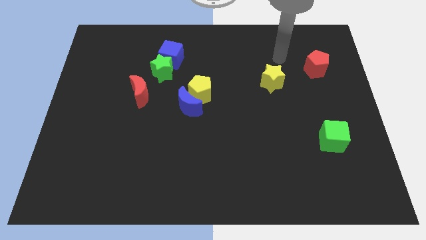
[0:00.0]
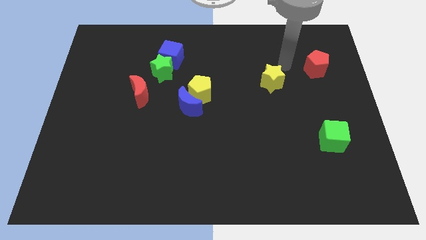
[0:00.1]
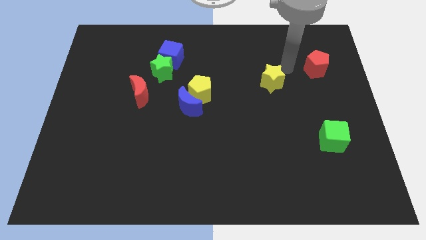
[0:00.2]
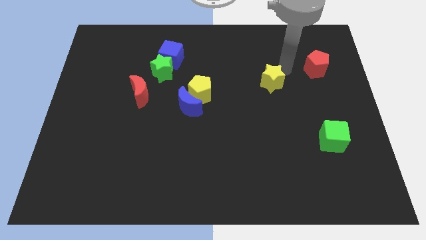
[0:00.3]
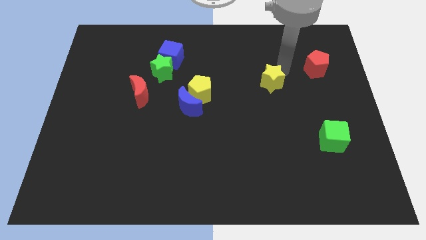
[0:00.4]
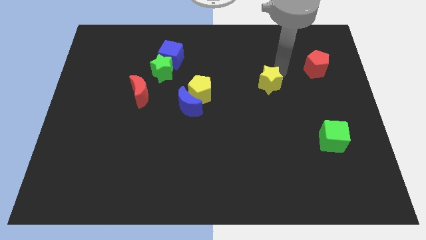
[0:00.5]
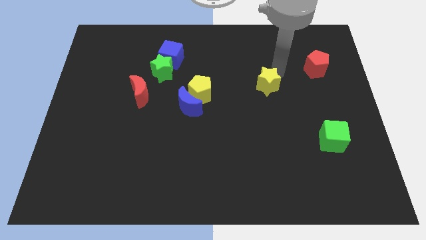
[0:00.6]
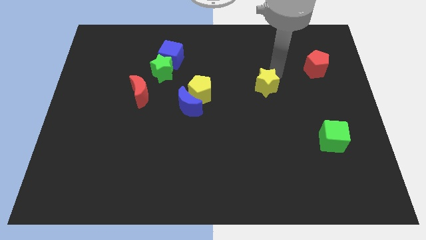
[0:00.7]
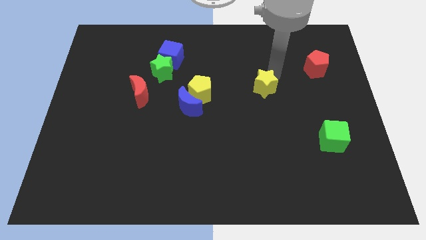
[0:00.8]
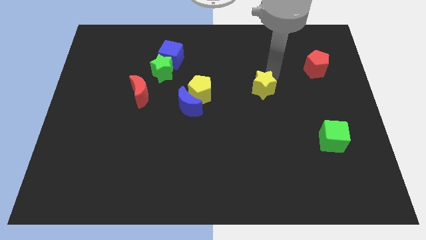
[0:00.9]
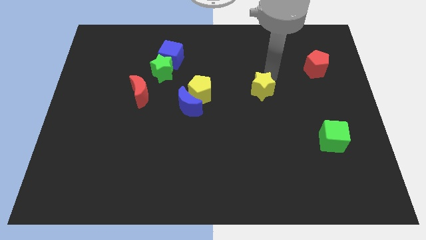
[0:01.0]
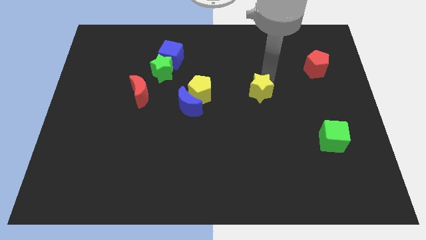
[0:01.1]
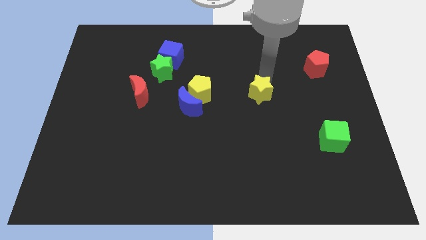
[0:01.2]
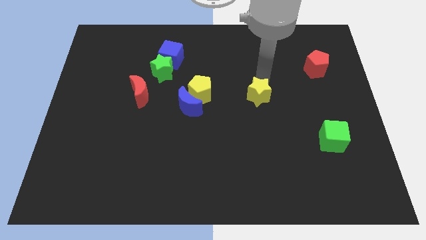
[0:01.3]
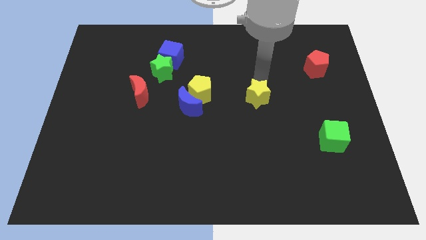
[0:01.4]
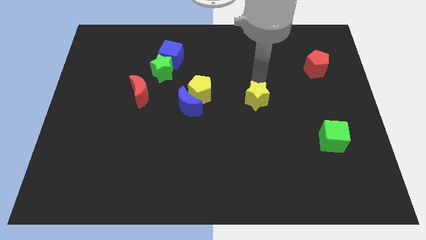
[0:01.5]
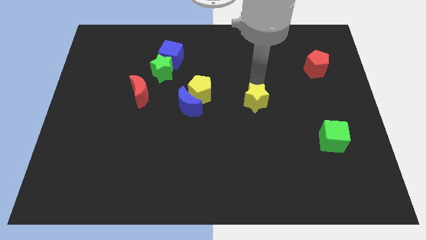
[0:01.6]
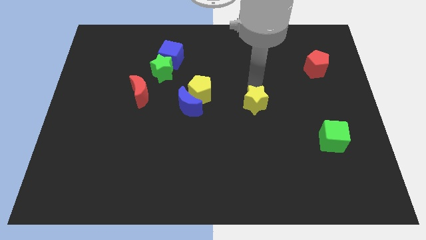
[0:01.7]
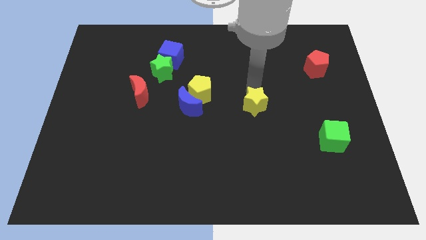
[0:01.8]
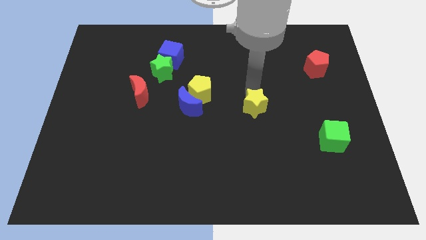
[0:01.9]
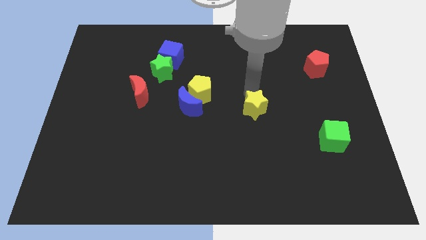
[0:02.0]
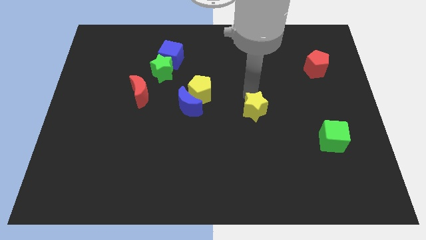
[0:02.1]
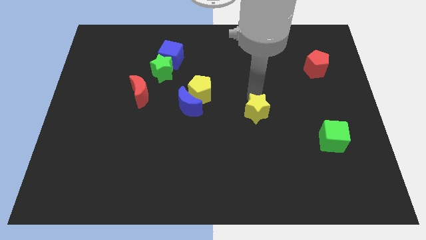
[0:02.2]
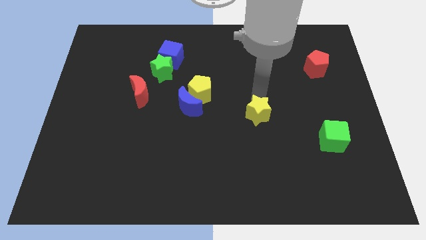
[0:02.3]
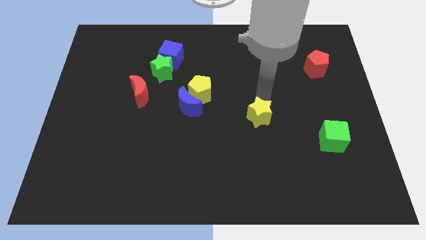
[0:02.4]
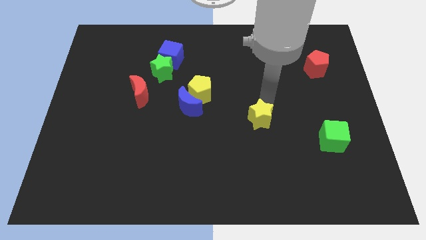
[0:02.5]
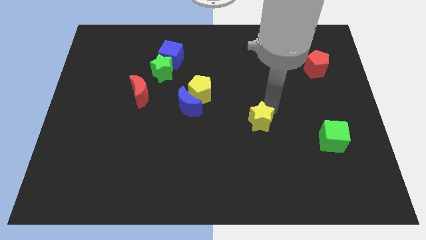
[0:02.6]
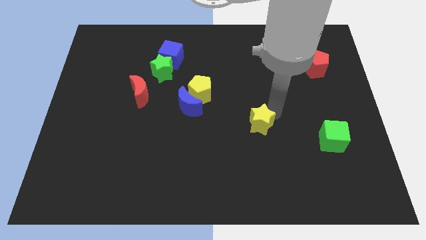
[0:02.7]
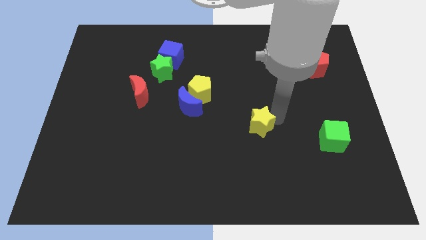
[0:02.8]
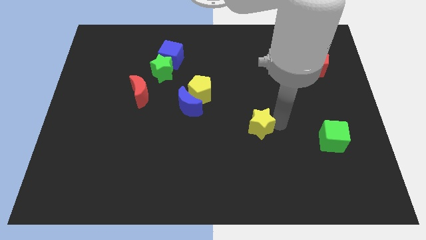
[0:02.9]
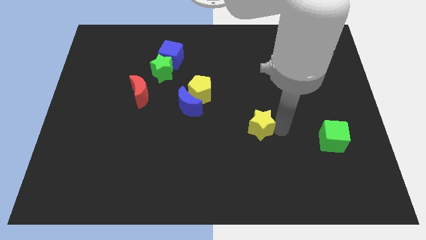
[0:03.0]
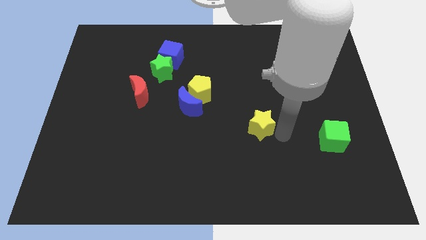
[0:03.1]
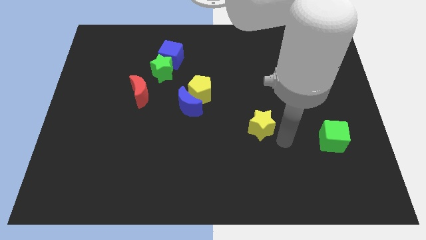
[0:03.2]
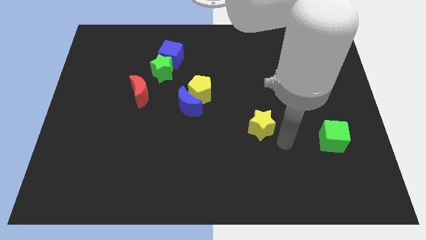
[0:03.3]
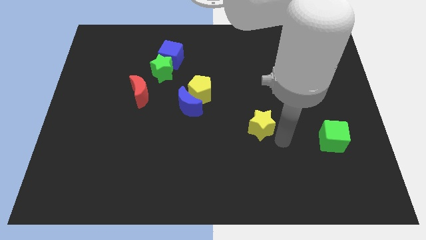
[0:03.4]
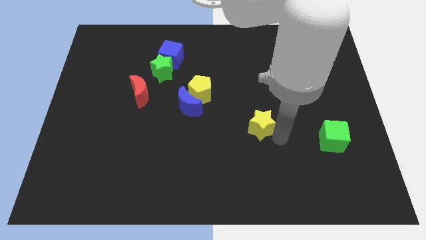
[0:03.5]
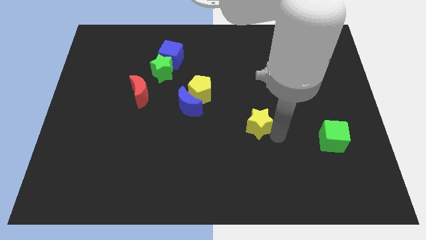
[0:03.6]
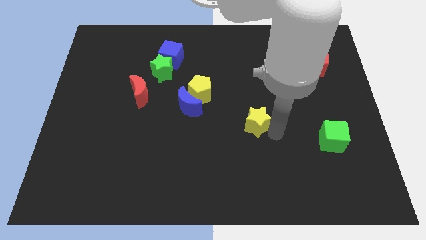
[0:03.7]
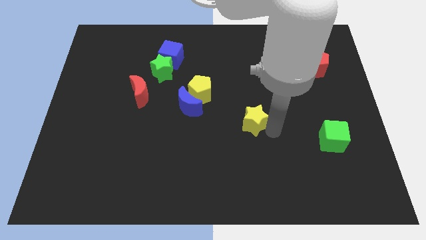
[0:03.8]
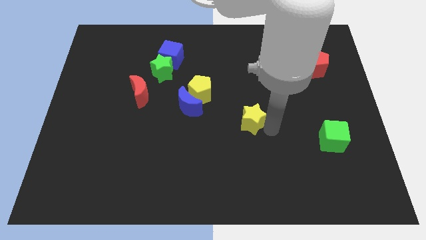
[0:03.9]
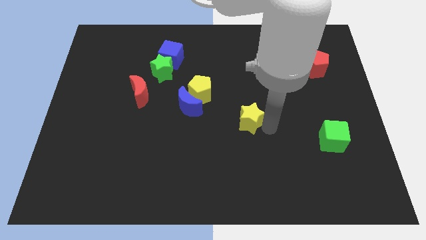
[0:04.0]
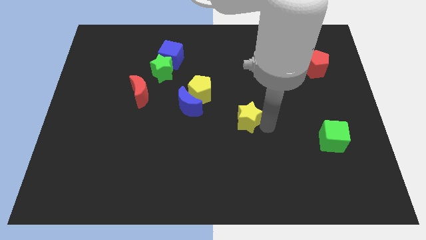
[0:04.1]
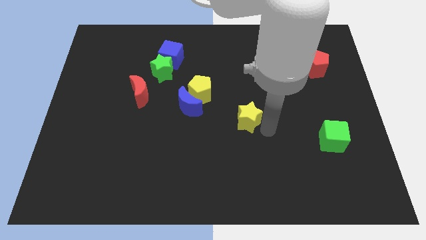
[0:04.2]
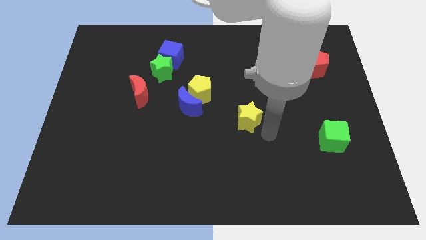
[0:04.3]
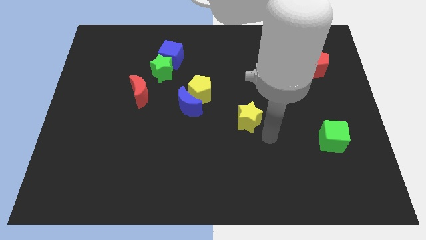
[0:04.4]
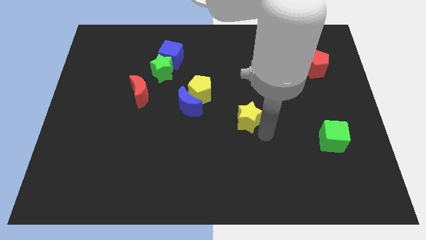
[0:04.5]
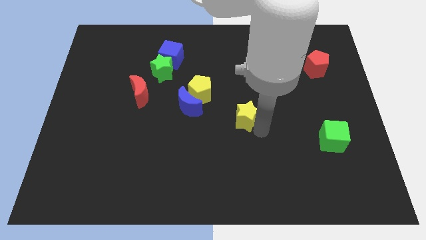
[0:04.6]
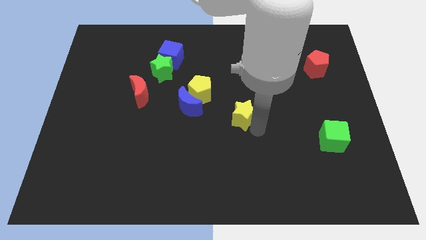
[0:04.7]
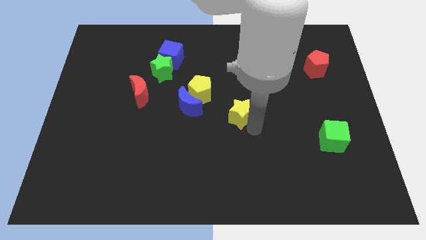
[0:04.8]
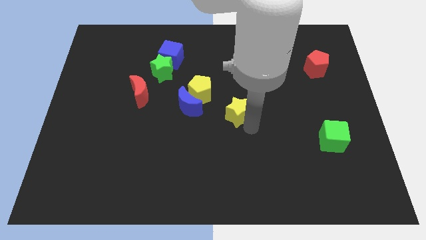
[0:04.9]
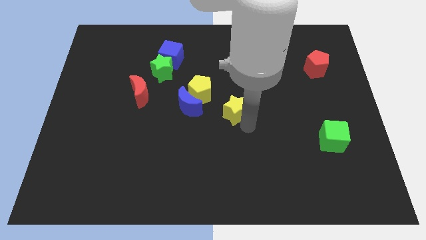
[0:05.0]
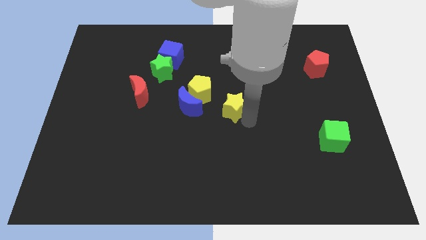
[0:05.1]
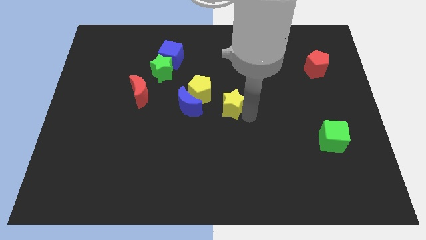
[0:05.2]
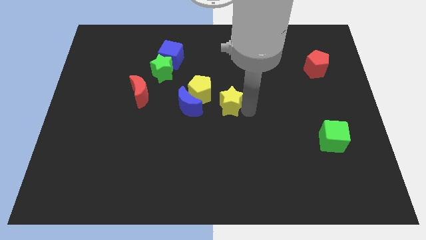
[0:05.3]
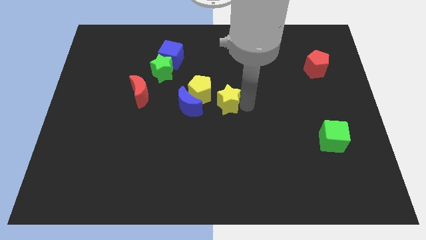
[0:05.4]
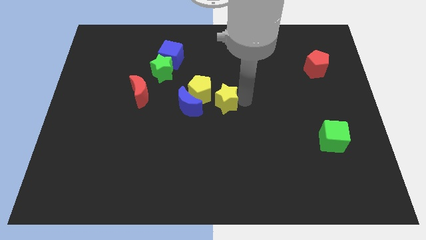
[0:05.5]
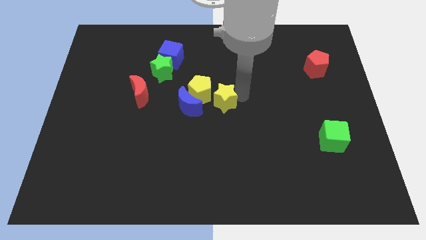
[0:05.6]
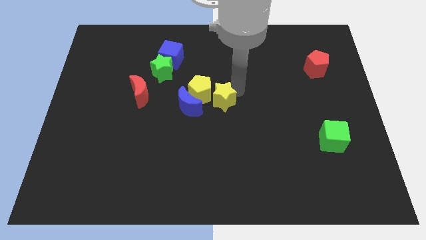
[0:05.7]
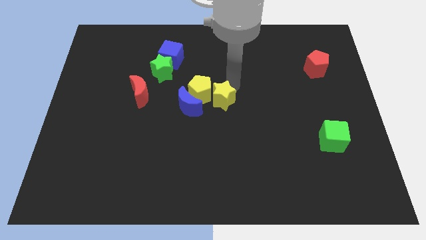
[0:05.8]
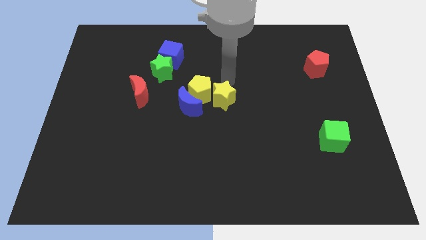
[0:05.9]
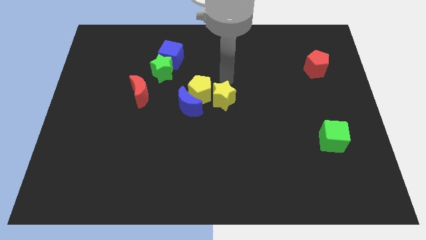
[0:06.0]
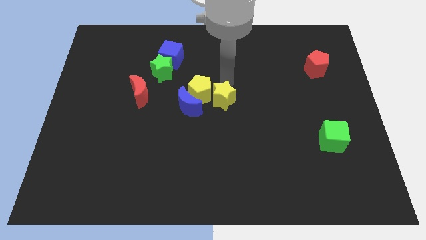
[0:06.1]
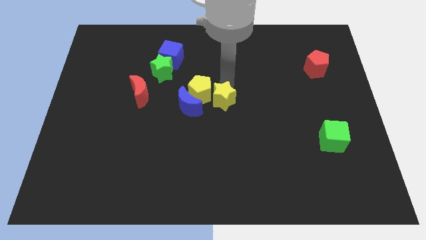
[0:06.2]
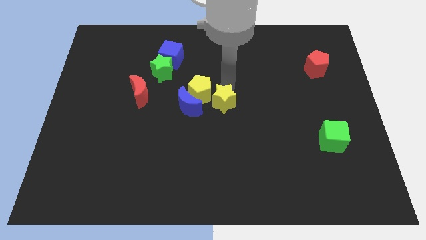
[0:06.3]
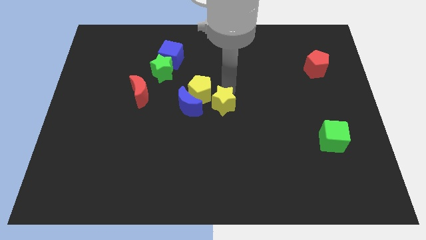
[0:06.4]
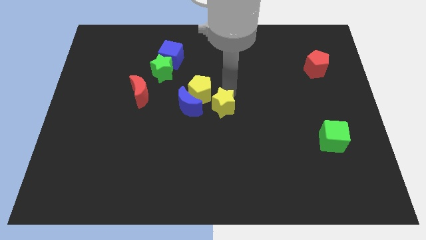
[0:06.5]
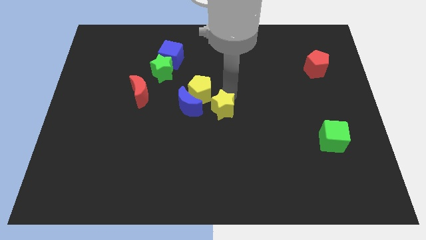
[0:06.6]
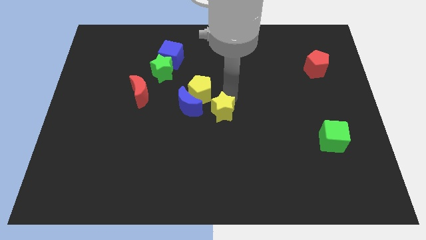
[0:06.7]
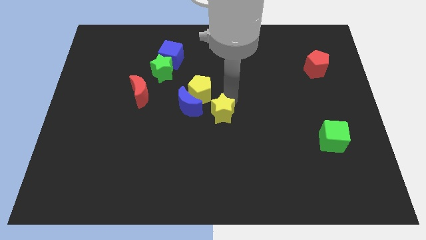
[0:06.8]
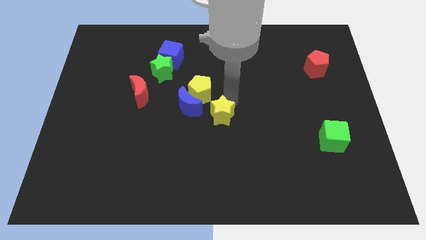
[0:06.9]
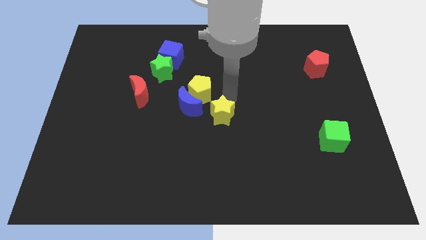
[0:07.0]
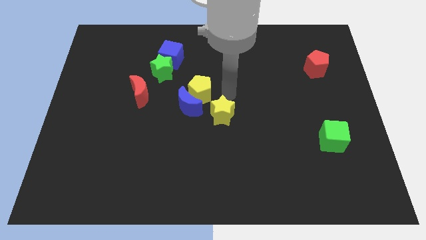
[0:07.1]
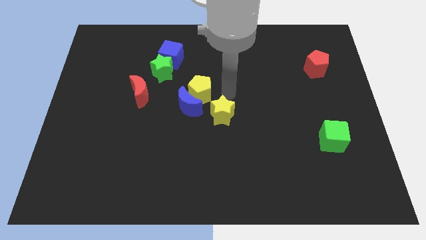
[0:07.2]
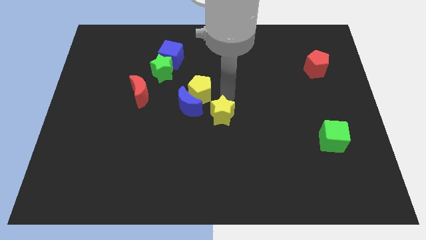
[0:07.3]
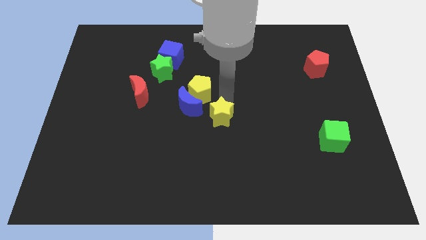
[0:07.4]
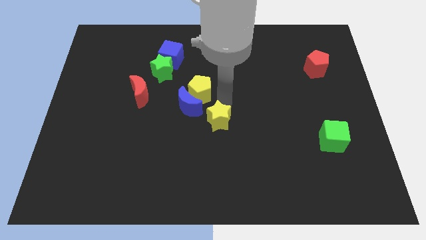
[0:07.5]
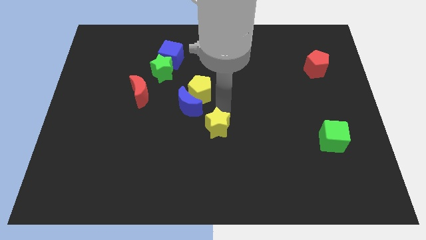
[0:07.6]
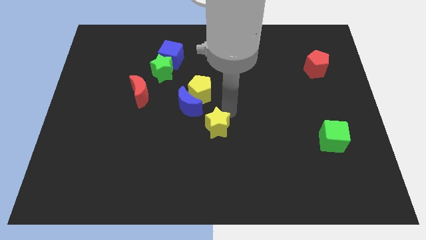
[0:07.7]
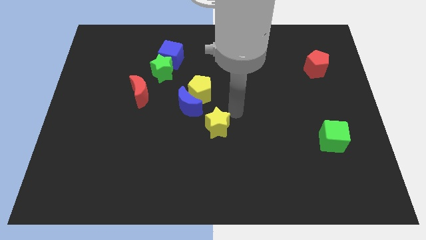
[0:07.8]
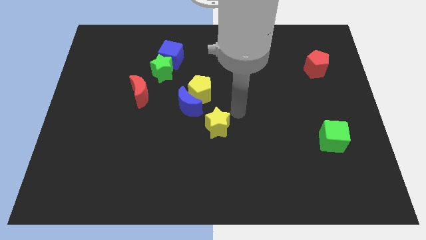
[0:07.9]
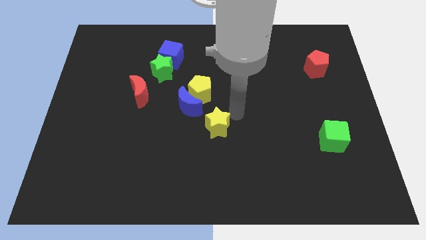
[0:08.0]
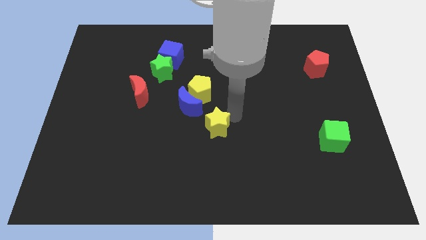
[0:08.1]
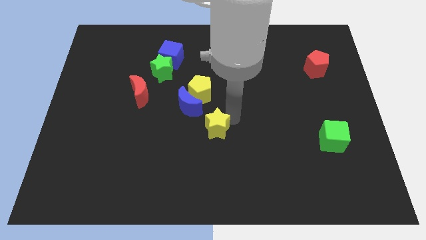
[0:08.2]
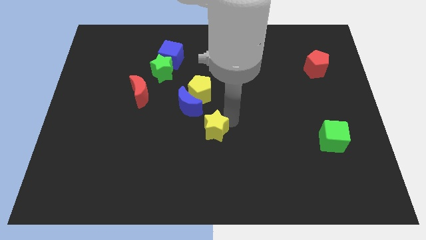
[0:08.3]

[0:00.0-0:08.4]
slide the yellow star diagonally downwards and left
